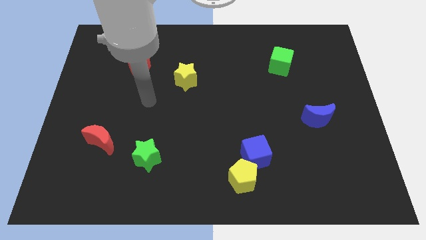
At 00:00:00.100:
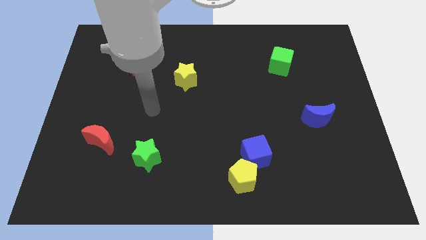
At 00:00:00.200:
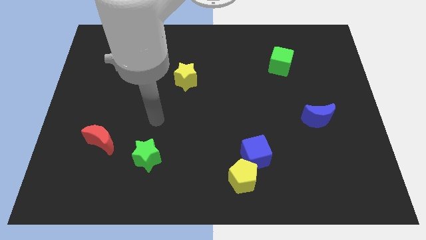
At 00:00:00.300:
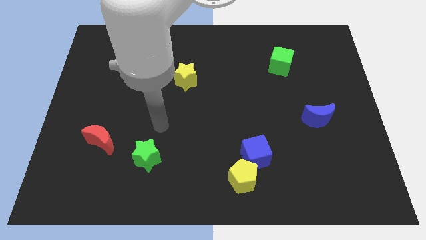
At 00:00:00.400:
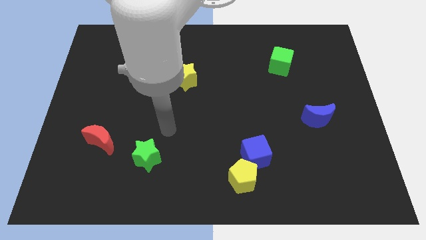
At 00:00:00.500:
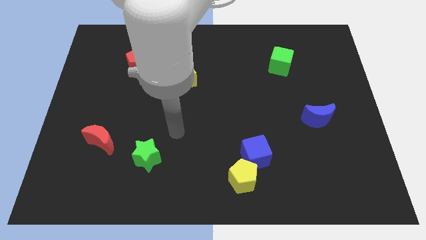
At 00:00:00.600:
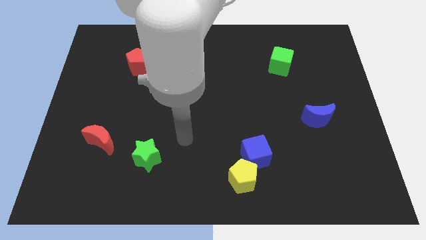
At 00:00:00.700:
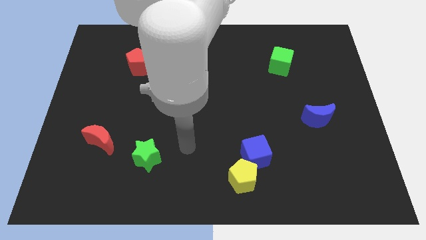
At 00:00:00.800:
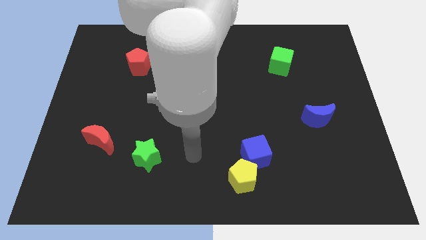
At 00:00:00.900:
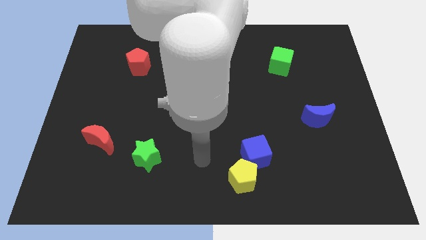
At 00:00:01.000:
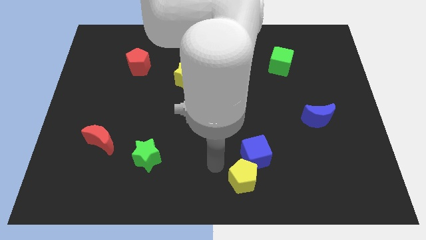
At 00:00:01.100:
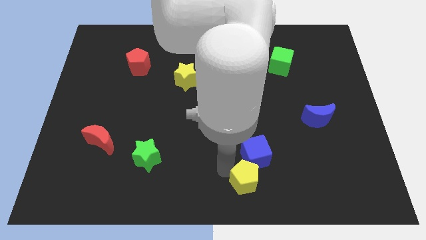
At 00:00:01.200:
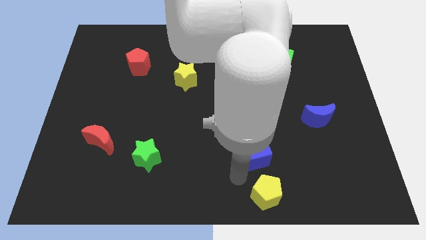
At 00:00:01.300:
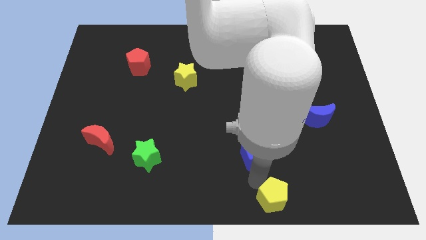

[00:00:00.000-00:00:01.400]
move the blue cube away from the yellow pentagon

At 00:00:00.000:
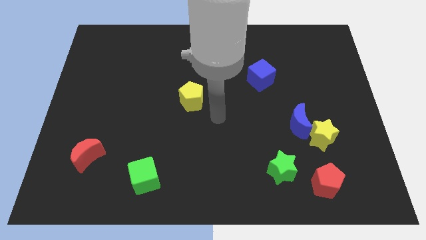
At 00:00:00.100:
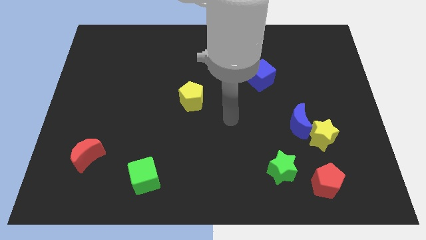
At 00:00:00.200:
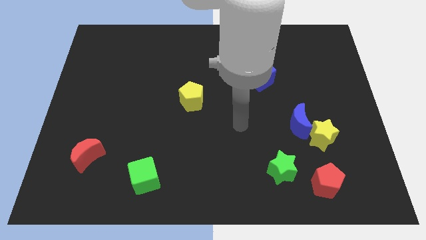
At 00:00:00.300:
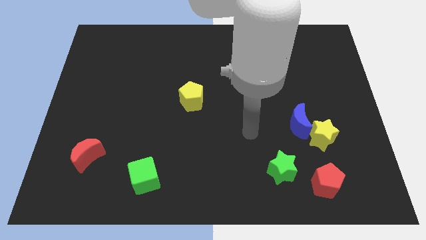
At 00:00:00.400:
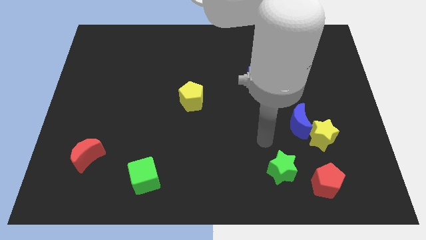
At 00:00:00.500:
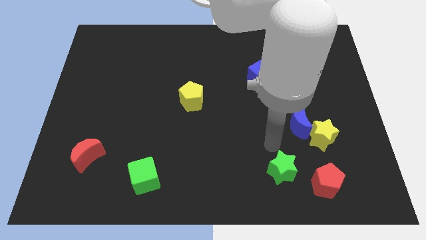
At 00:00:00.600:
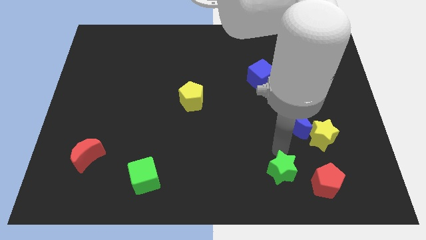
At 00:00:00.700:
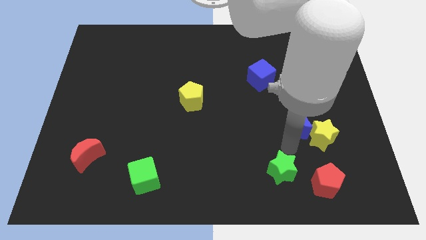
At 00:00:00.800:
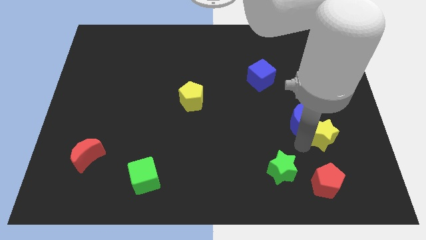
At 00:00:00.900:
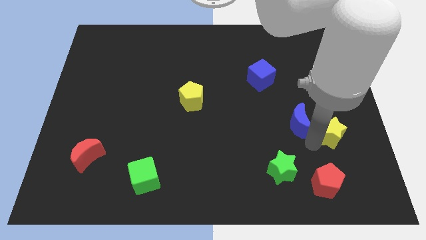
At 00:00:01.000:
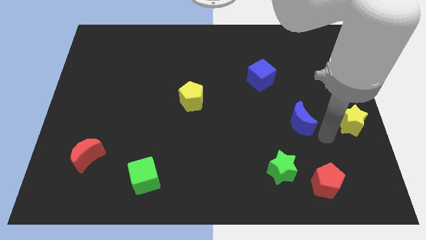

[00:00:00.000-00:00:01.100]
move the blue moon away from the yellow star

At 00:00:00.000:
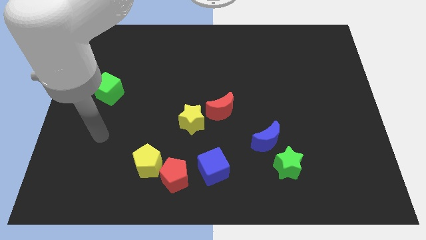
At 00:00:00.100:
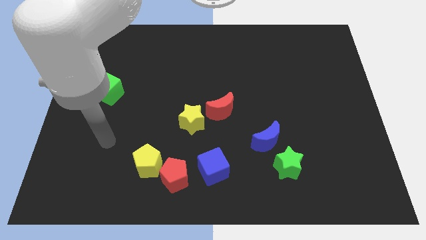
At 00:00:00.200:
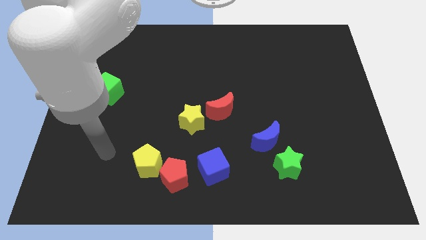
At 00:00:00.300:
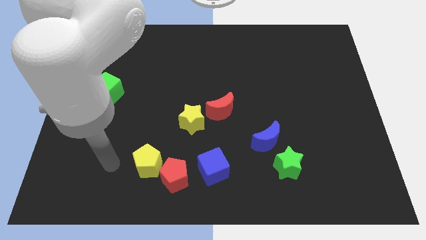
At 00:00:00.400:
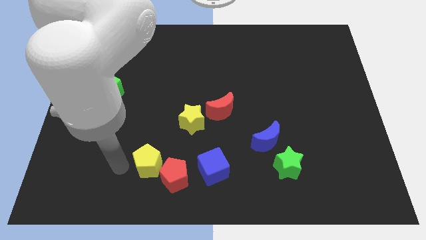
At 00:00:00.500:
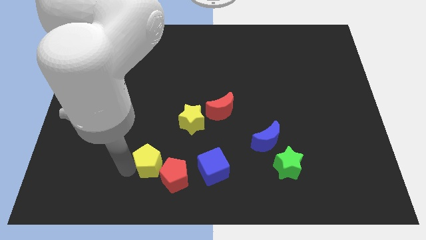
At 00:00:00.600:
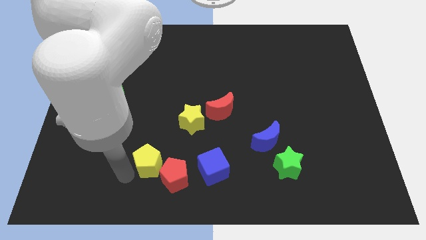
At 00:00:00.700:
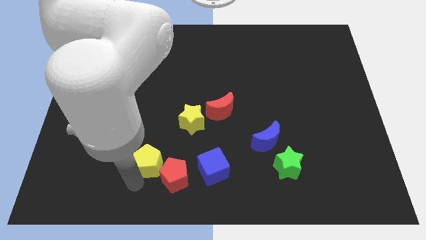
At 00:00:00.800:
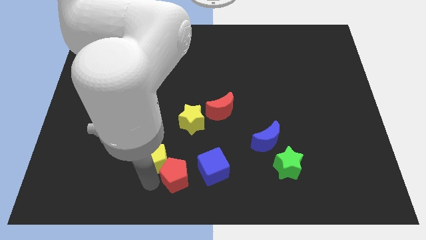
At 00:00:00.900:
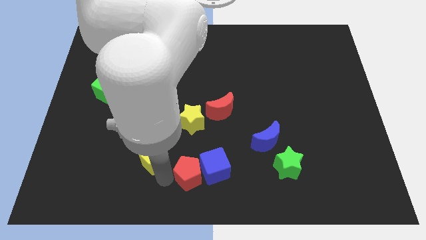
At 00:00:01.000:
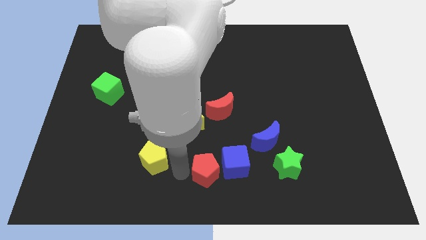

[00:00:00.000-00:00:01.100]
pull the yellow pentagon apart from the red pentagon

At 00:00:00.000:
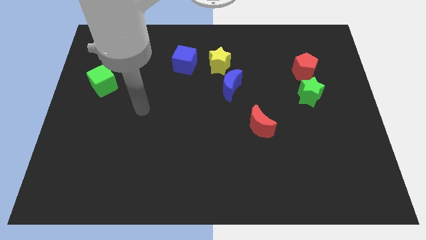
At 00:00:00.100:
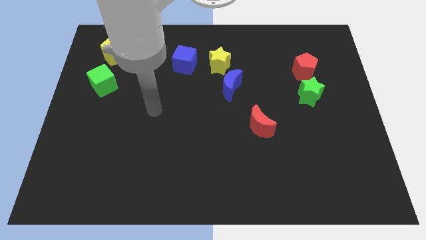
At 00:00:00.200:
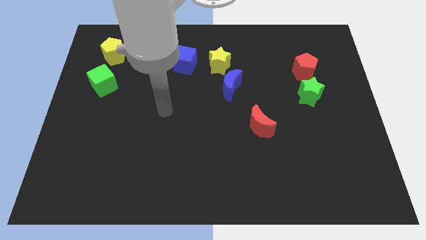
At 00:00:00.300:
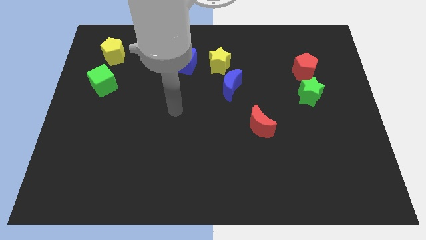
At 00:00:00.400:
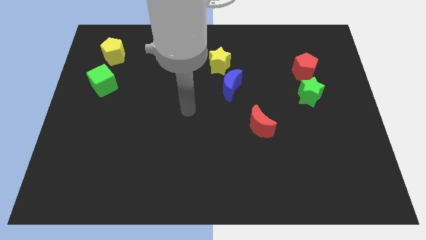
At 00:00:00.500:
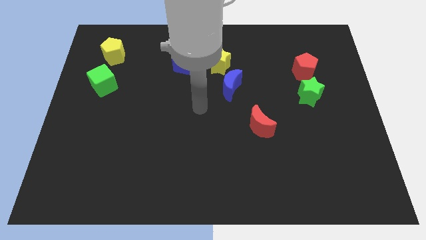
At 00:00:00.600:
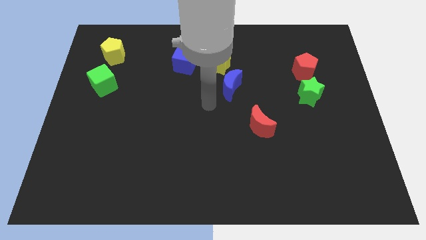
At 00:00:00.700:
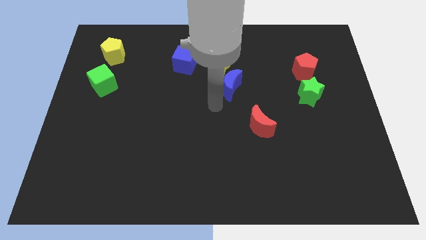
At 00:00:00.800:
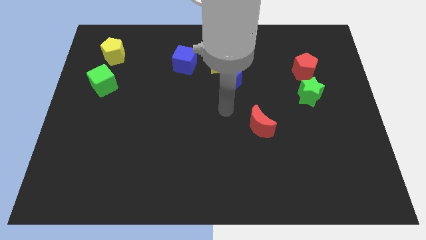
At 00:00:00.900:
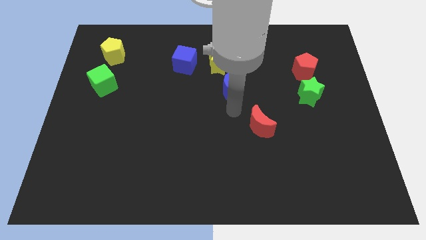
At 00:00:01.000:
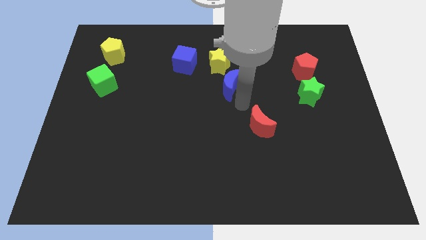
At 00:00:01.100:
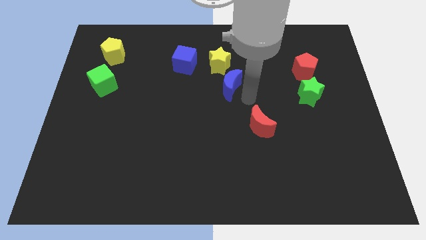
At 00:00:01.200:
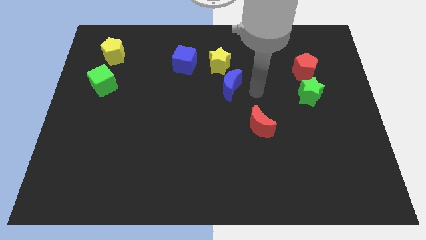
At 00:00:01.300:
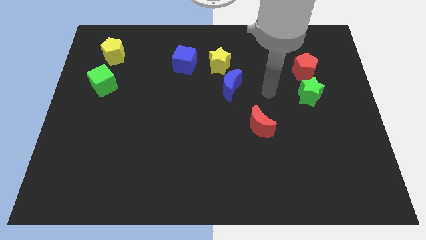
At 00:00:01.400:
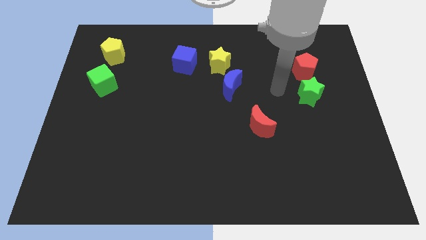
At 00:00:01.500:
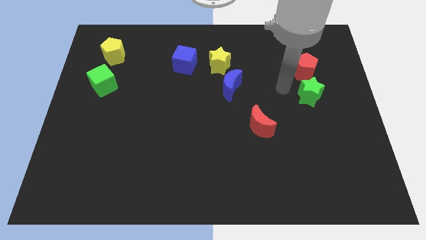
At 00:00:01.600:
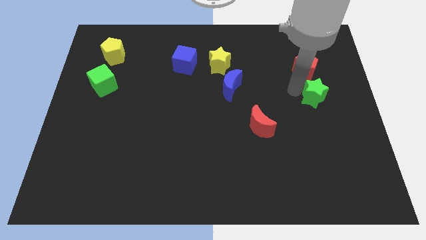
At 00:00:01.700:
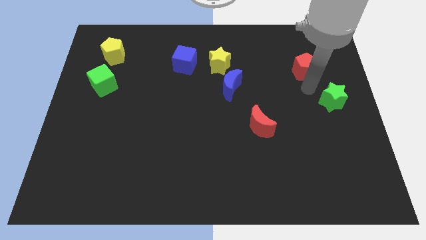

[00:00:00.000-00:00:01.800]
move the red pentagon away from the green star

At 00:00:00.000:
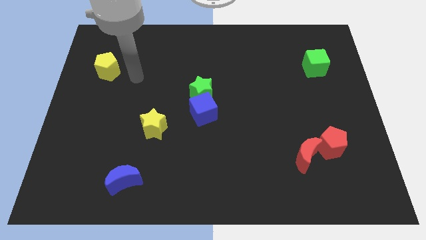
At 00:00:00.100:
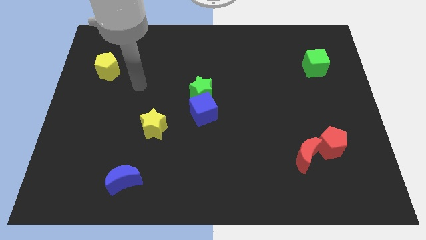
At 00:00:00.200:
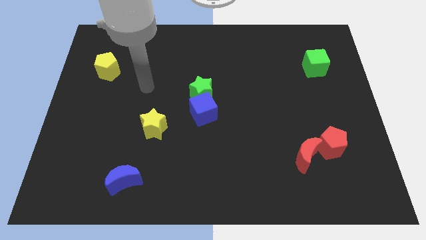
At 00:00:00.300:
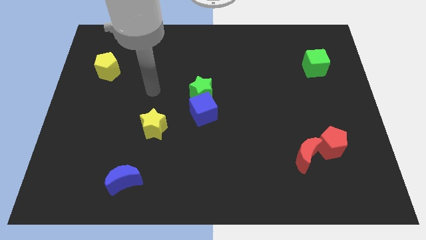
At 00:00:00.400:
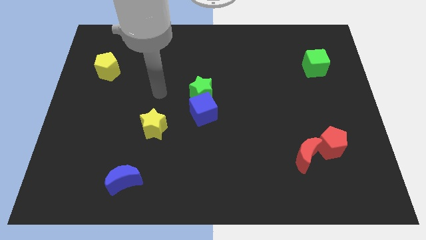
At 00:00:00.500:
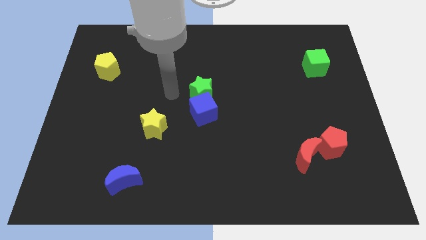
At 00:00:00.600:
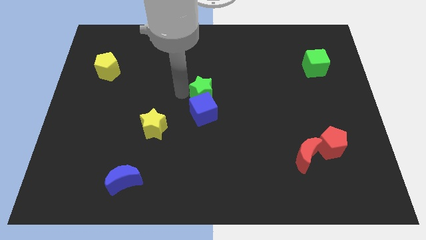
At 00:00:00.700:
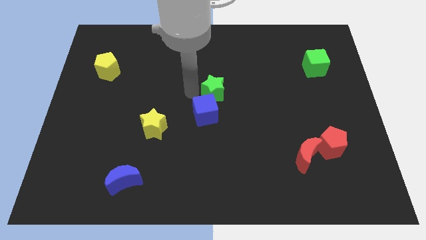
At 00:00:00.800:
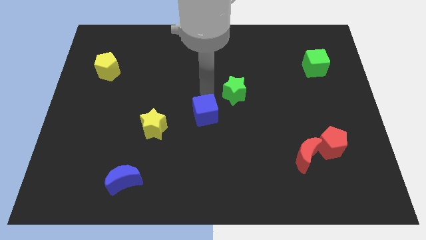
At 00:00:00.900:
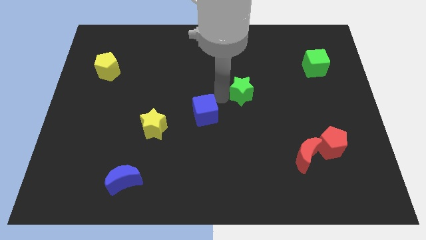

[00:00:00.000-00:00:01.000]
move the blue cube away from the green star

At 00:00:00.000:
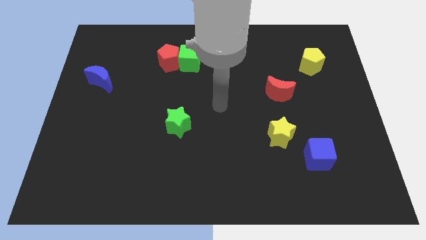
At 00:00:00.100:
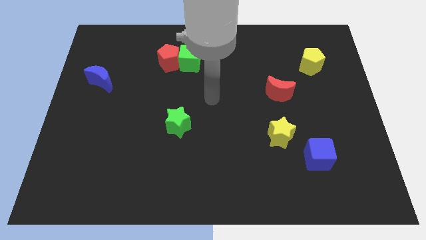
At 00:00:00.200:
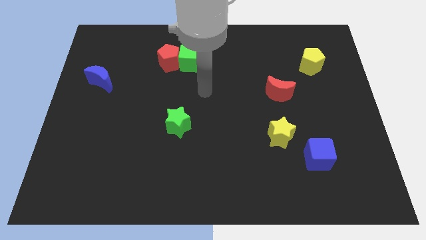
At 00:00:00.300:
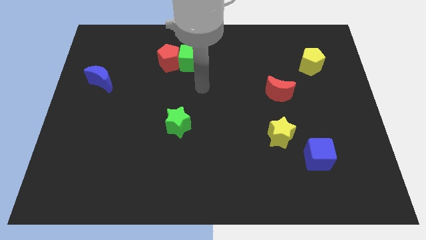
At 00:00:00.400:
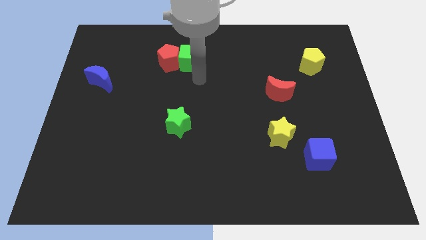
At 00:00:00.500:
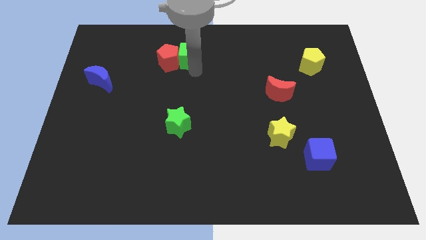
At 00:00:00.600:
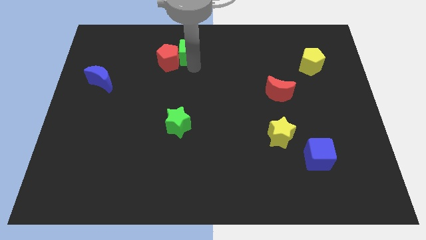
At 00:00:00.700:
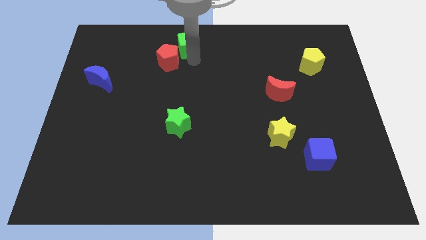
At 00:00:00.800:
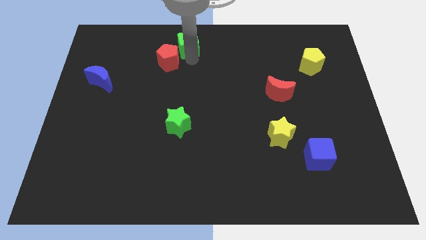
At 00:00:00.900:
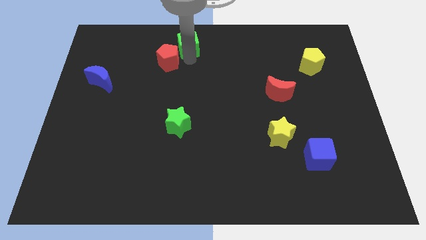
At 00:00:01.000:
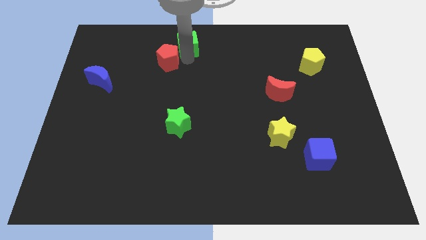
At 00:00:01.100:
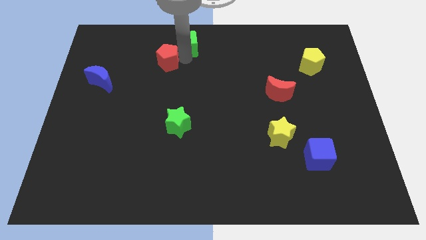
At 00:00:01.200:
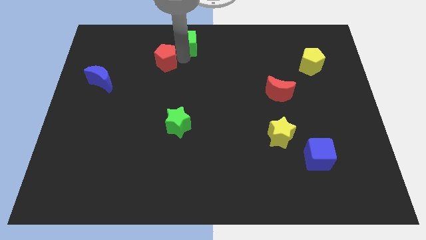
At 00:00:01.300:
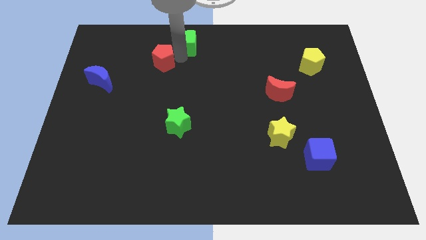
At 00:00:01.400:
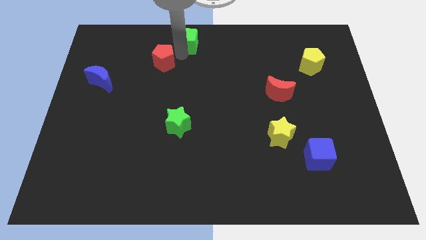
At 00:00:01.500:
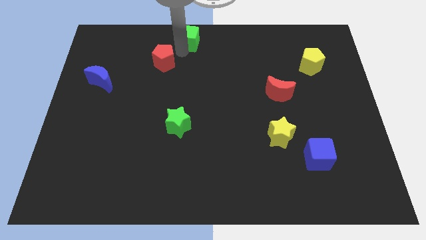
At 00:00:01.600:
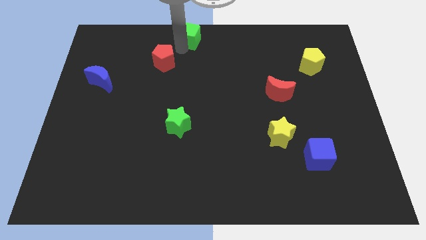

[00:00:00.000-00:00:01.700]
move the red pentagon away from the green cube

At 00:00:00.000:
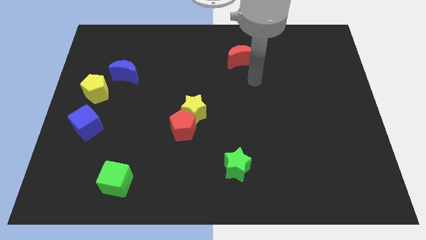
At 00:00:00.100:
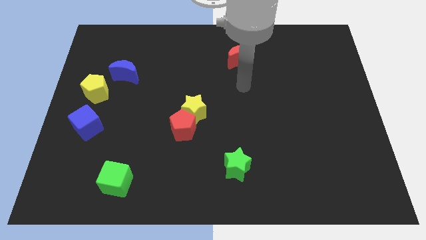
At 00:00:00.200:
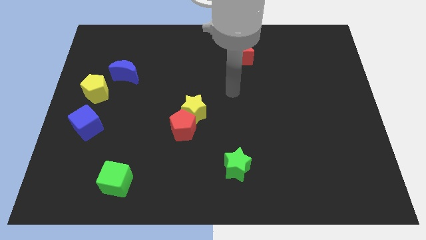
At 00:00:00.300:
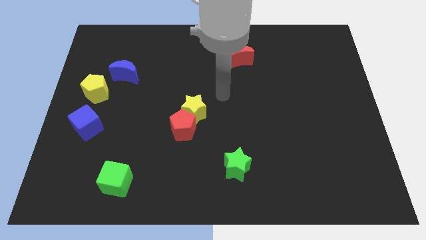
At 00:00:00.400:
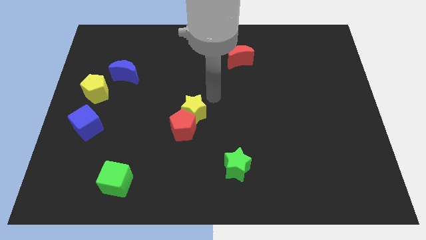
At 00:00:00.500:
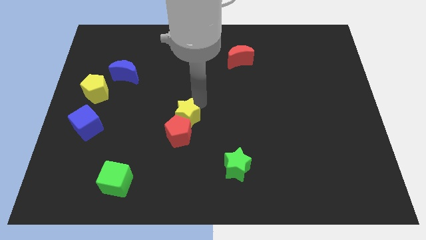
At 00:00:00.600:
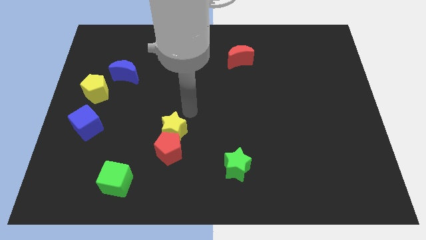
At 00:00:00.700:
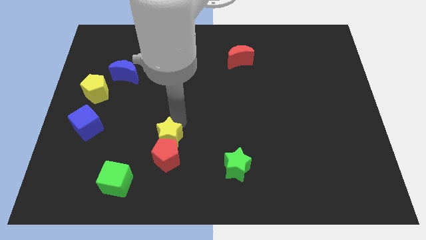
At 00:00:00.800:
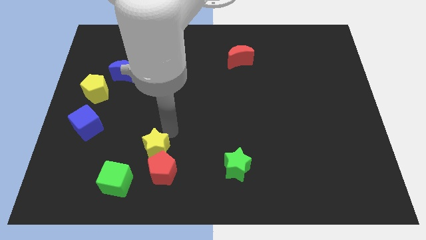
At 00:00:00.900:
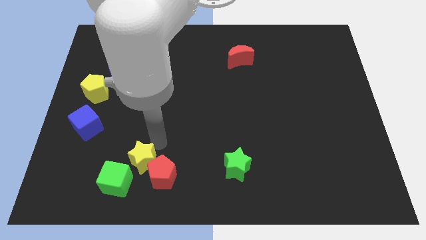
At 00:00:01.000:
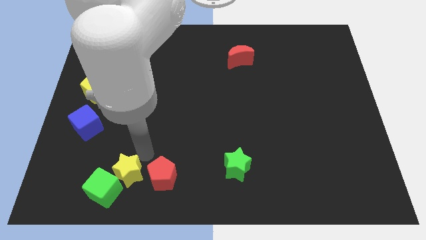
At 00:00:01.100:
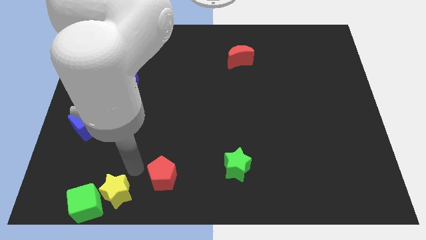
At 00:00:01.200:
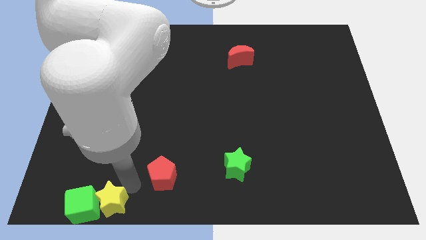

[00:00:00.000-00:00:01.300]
move the red pentagon away from the yellow star
